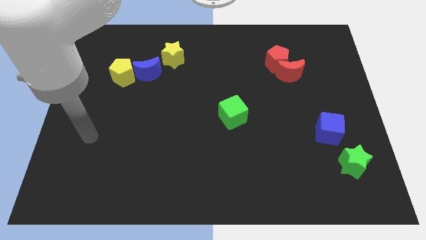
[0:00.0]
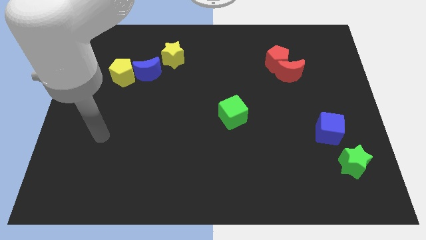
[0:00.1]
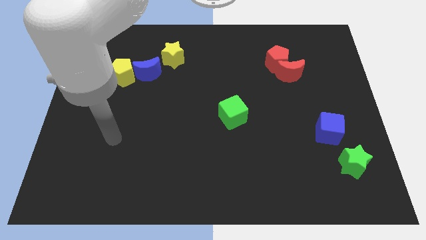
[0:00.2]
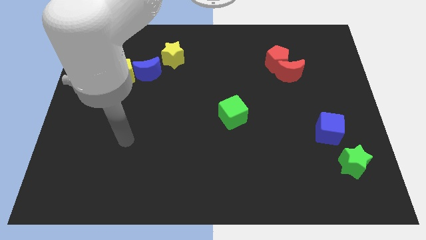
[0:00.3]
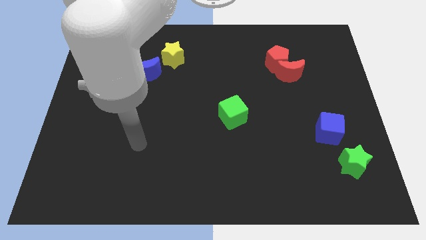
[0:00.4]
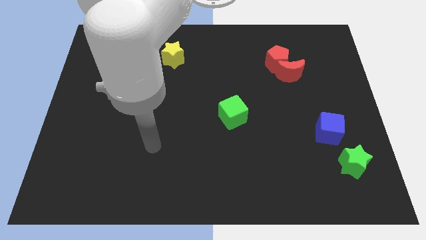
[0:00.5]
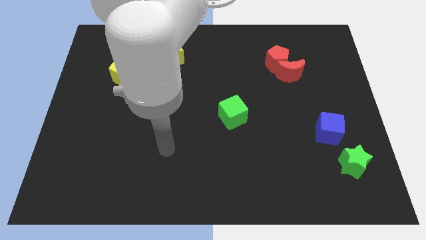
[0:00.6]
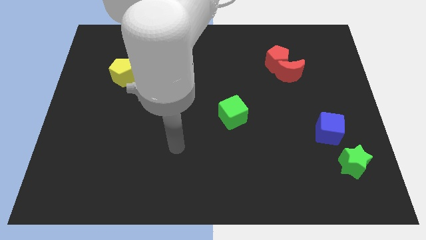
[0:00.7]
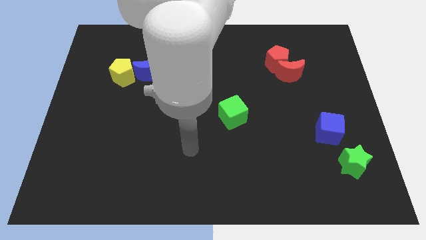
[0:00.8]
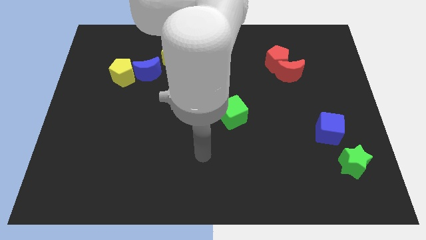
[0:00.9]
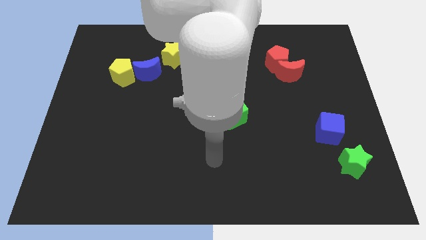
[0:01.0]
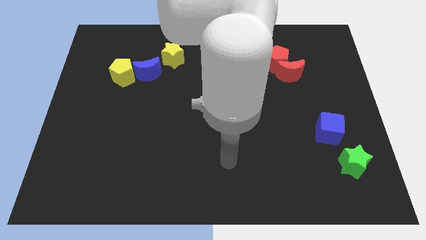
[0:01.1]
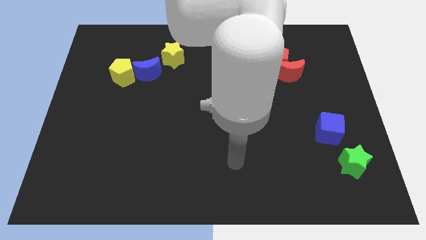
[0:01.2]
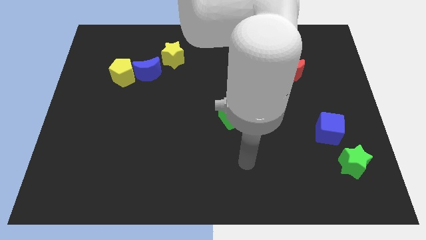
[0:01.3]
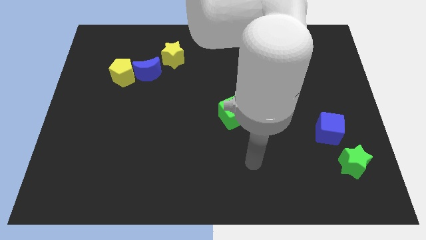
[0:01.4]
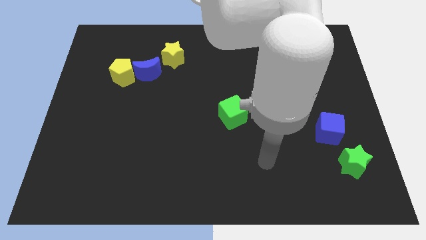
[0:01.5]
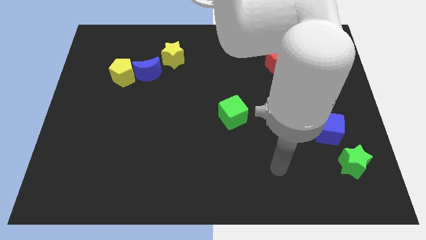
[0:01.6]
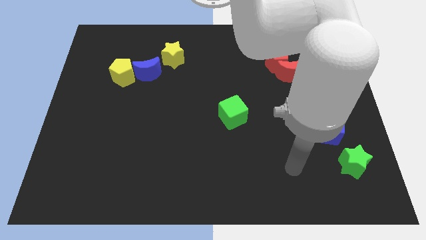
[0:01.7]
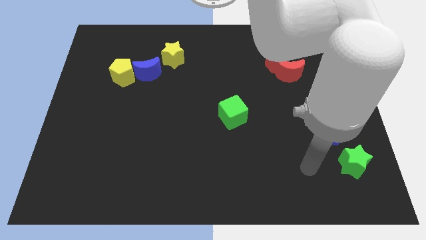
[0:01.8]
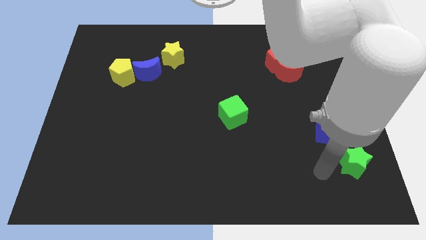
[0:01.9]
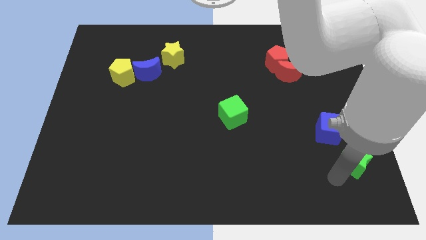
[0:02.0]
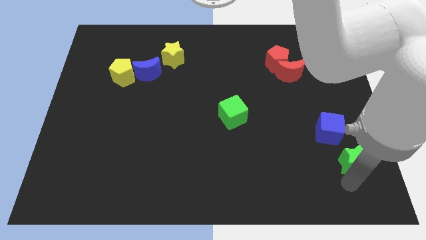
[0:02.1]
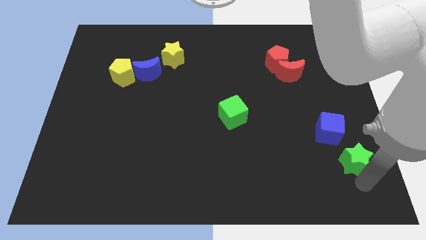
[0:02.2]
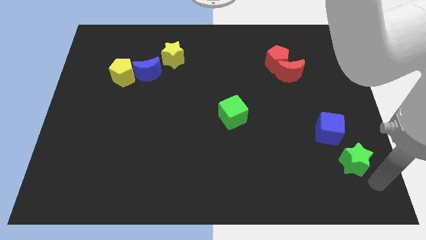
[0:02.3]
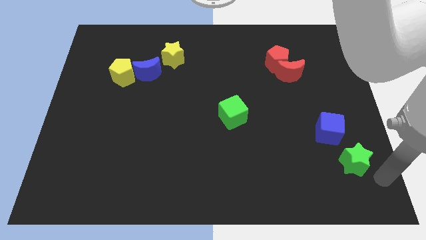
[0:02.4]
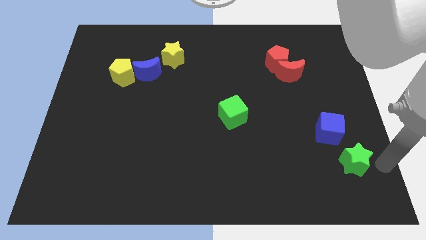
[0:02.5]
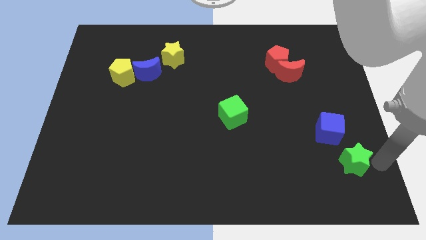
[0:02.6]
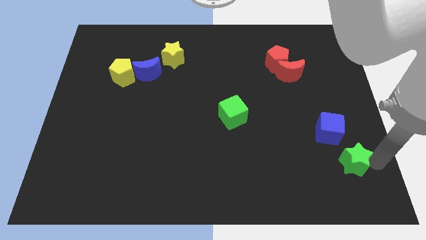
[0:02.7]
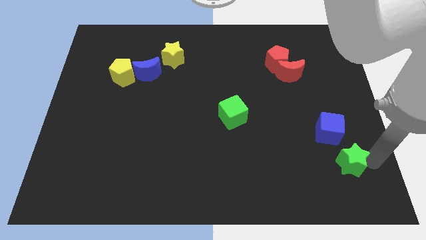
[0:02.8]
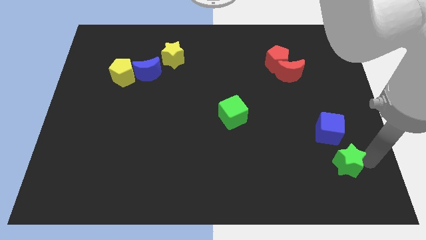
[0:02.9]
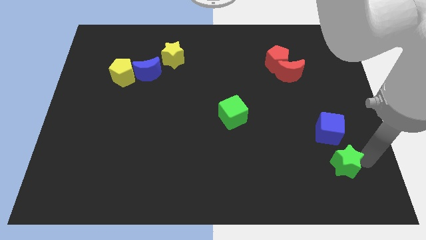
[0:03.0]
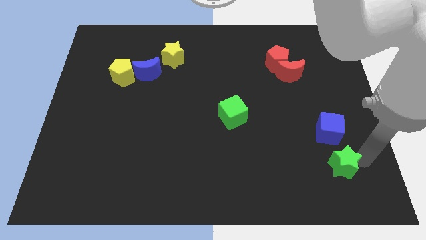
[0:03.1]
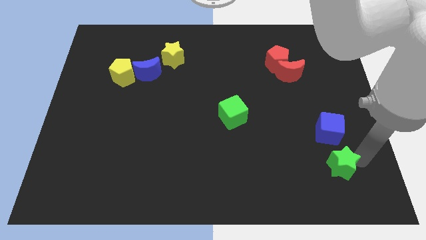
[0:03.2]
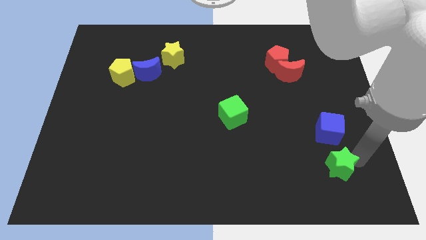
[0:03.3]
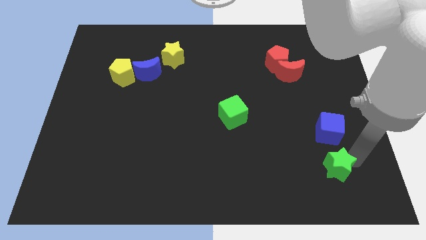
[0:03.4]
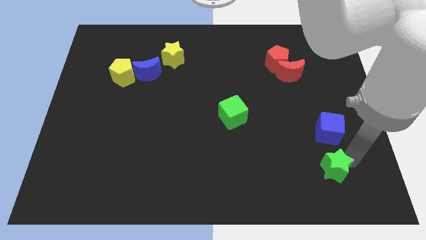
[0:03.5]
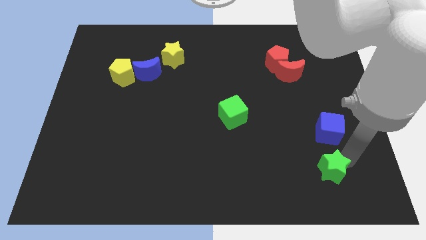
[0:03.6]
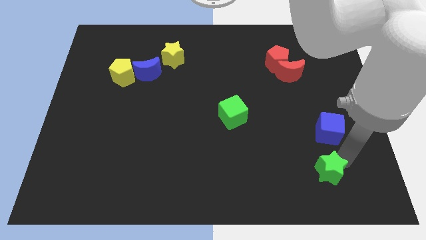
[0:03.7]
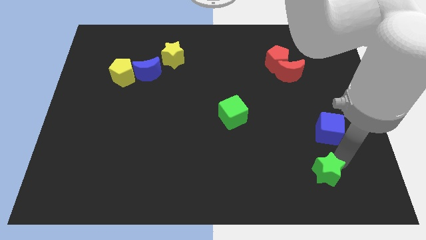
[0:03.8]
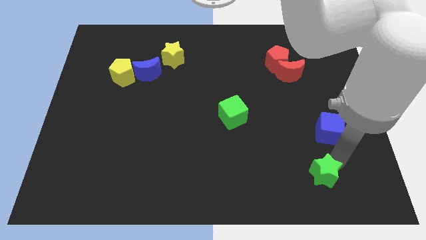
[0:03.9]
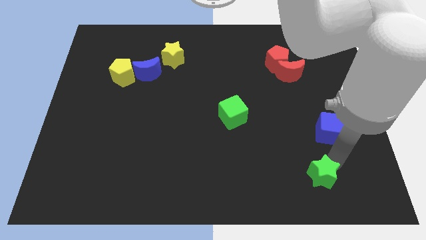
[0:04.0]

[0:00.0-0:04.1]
slide the green star to the left slightly

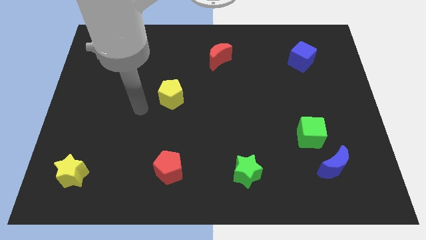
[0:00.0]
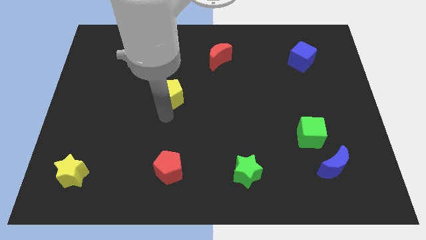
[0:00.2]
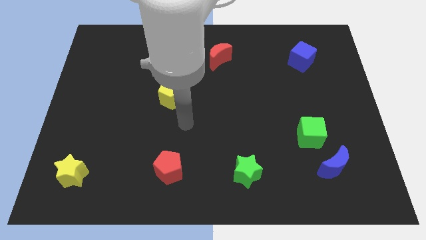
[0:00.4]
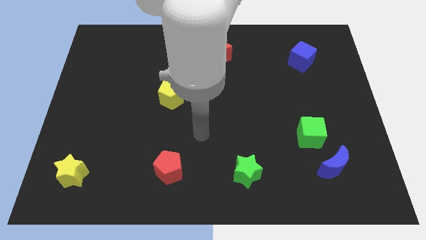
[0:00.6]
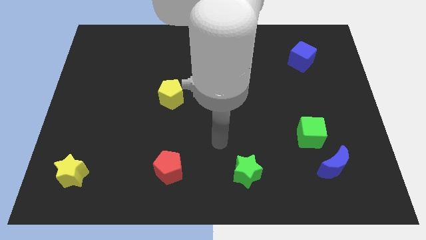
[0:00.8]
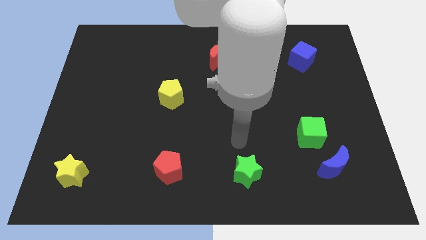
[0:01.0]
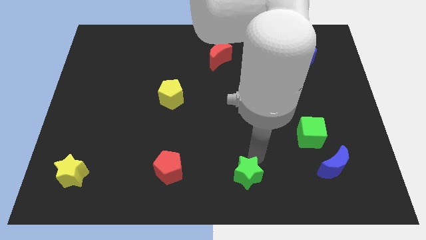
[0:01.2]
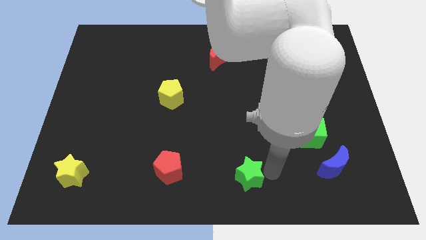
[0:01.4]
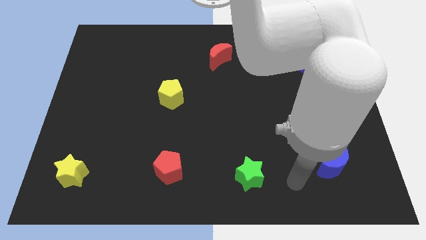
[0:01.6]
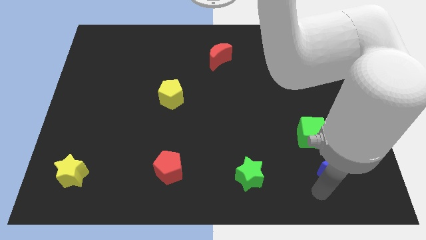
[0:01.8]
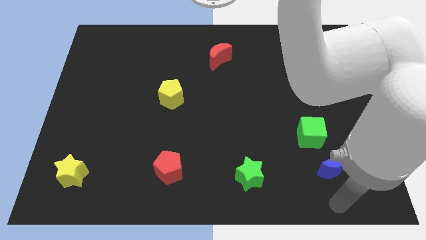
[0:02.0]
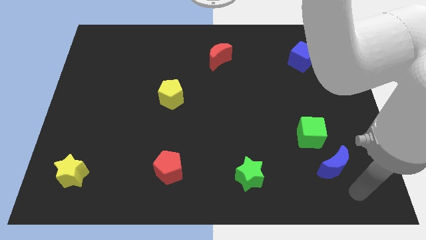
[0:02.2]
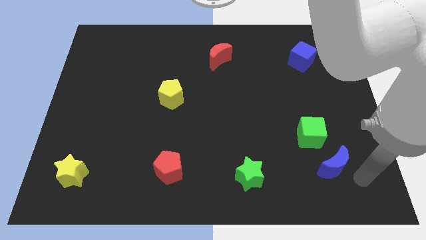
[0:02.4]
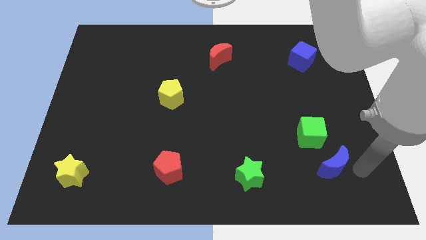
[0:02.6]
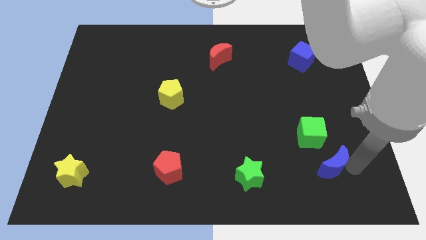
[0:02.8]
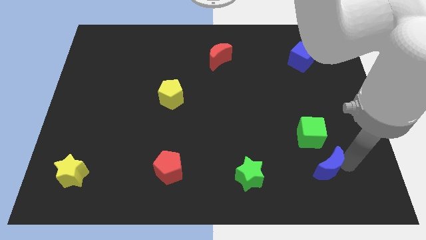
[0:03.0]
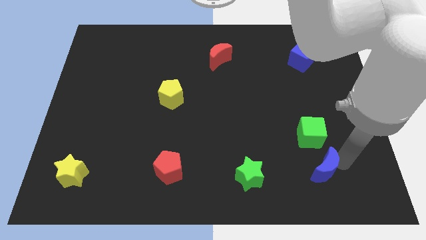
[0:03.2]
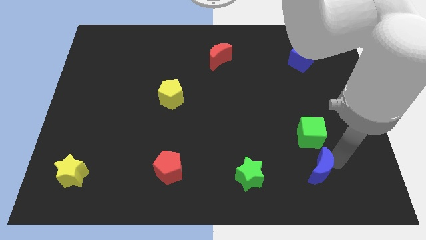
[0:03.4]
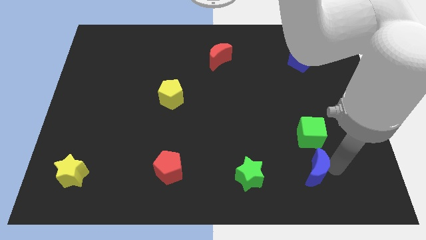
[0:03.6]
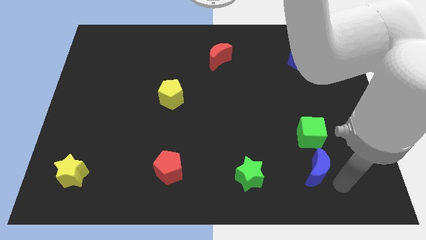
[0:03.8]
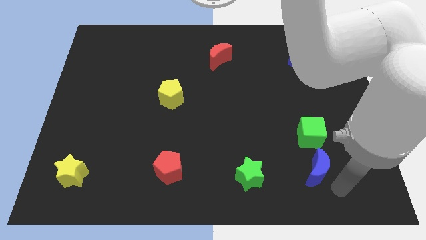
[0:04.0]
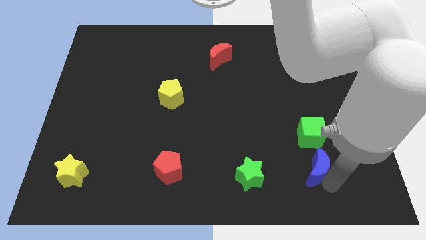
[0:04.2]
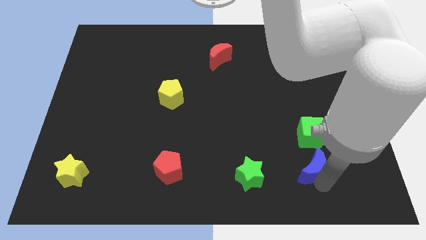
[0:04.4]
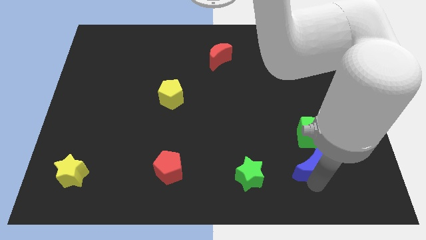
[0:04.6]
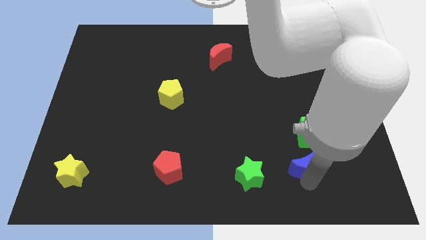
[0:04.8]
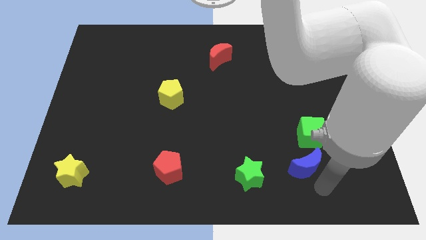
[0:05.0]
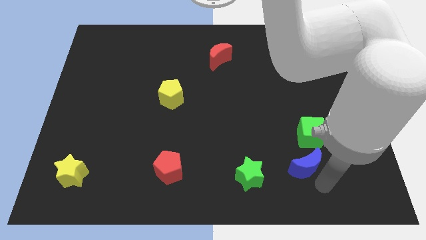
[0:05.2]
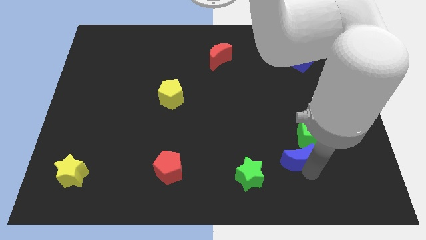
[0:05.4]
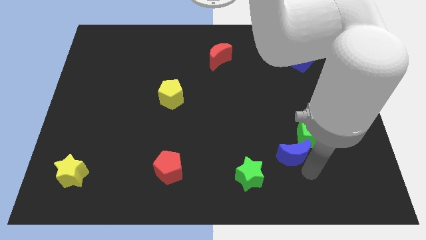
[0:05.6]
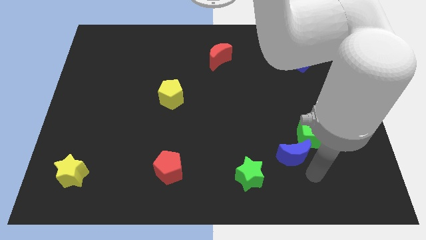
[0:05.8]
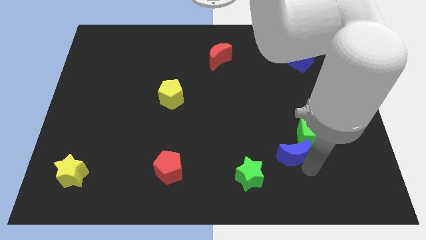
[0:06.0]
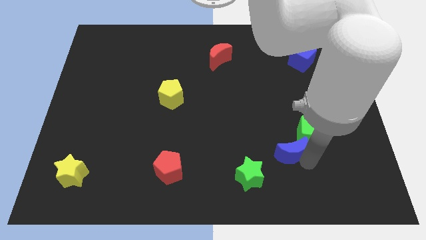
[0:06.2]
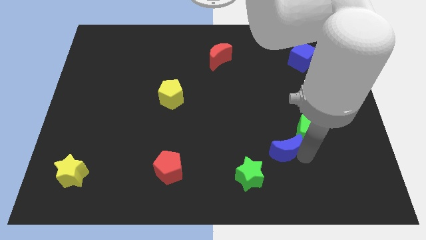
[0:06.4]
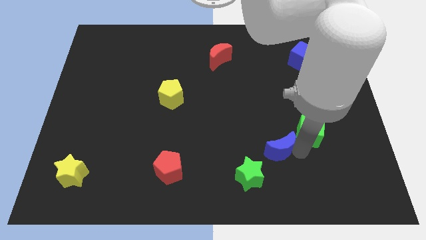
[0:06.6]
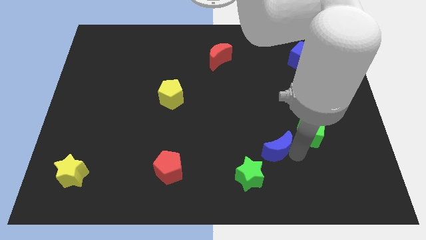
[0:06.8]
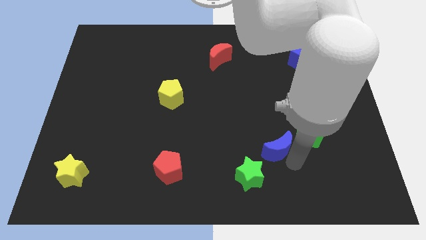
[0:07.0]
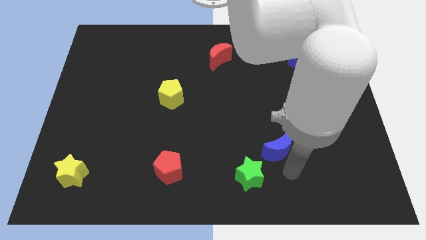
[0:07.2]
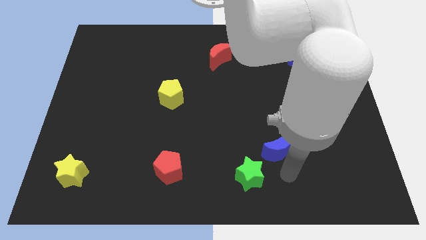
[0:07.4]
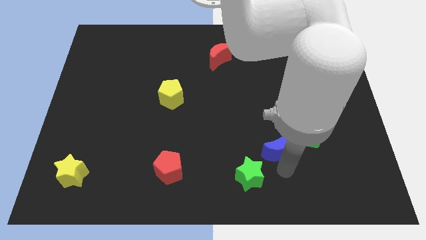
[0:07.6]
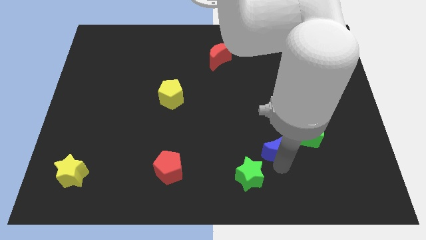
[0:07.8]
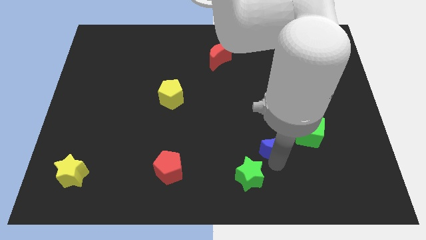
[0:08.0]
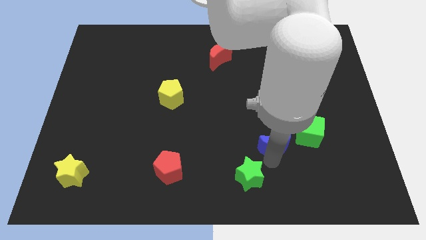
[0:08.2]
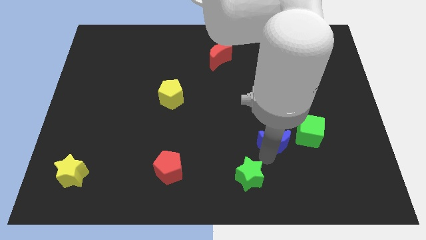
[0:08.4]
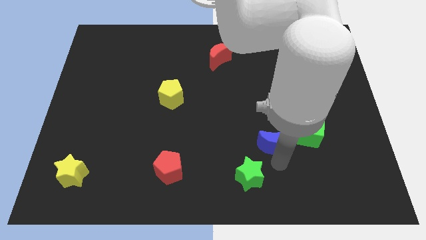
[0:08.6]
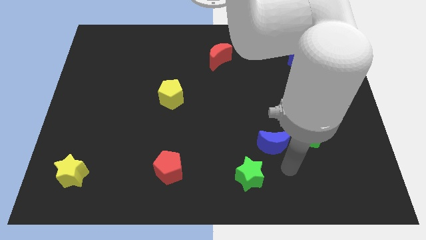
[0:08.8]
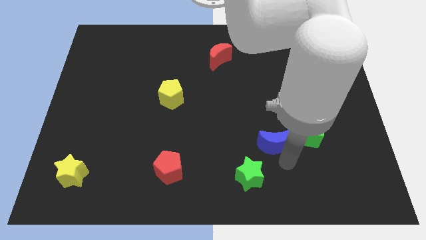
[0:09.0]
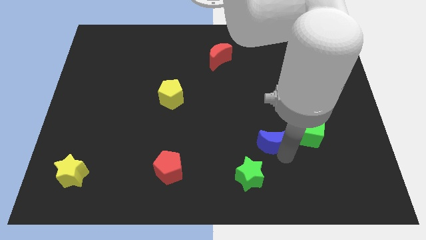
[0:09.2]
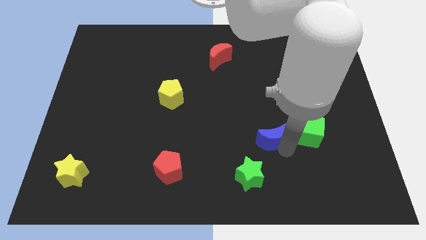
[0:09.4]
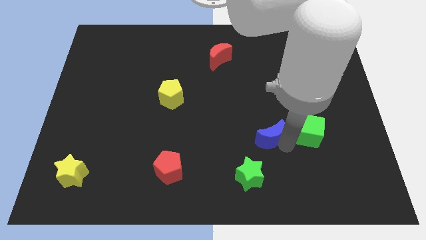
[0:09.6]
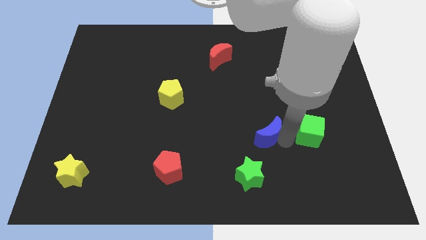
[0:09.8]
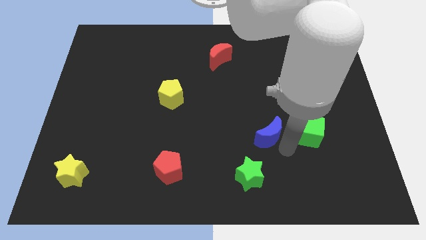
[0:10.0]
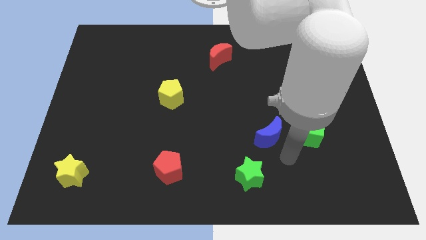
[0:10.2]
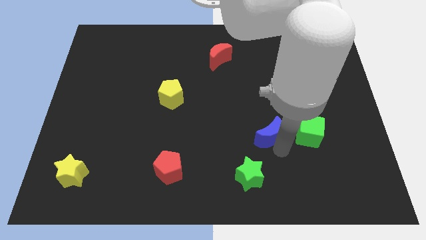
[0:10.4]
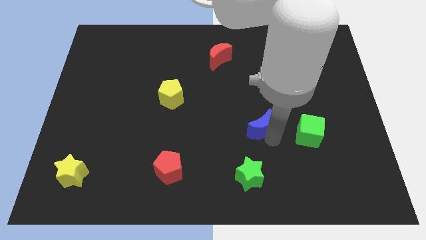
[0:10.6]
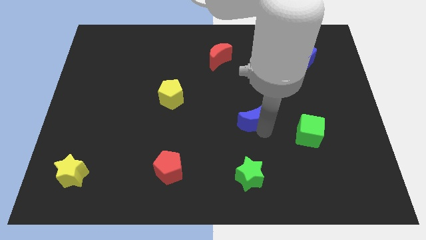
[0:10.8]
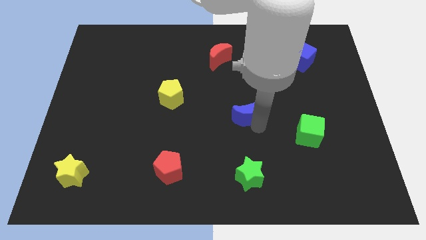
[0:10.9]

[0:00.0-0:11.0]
slide the blue moon upwards and to the left
